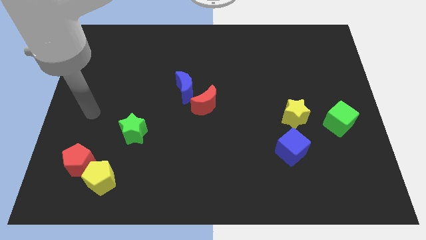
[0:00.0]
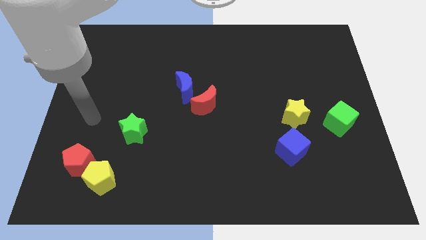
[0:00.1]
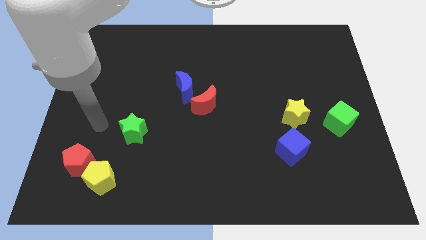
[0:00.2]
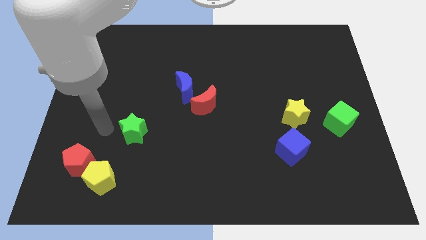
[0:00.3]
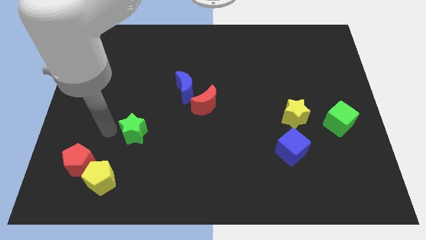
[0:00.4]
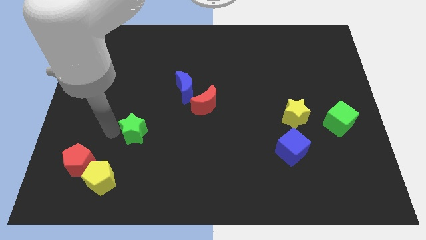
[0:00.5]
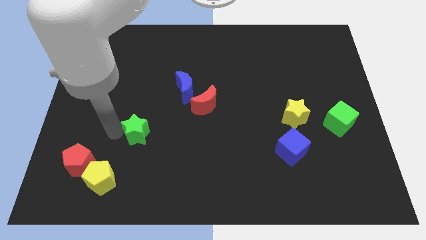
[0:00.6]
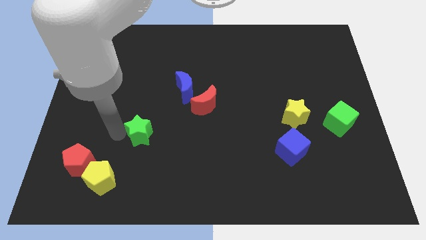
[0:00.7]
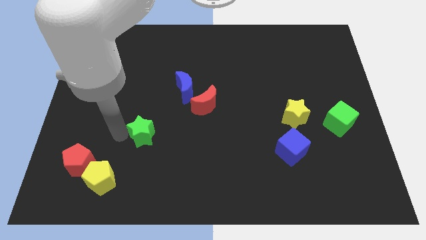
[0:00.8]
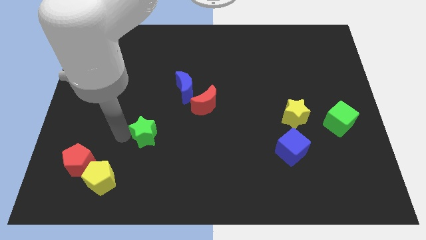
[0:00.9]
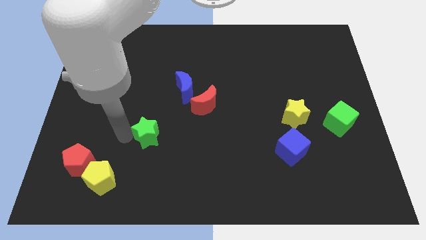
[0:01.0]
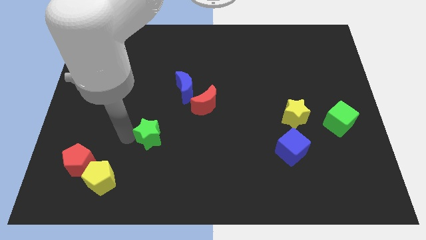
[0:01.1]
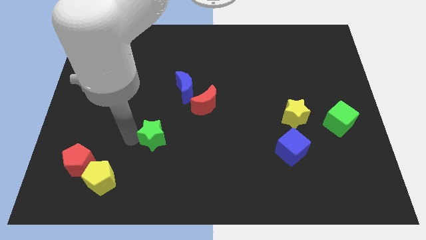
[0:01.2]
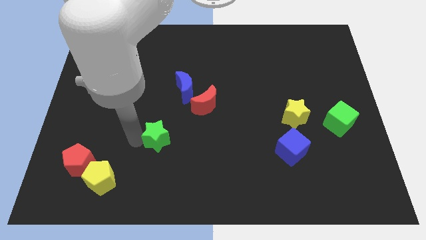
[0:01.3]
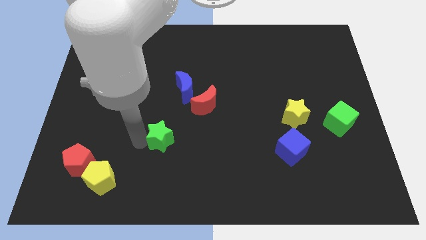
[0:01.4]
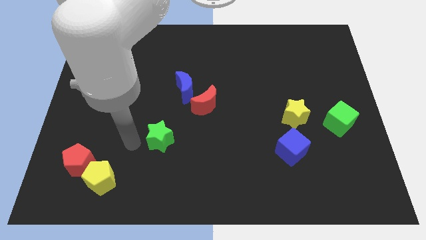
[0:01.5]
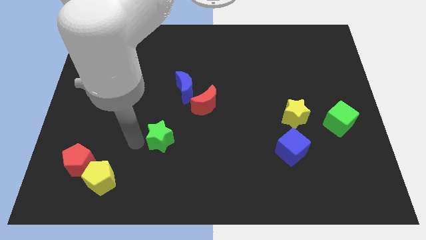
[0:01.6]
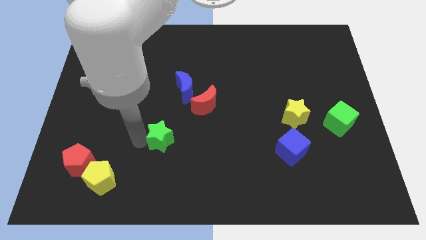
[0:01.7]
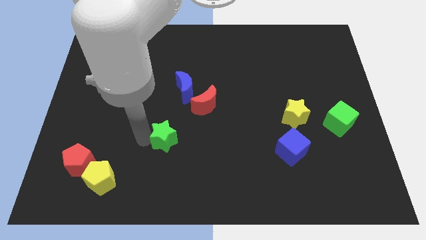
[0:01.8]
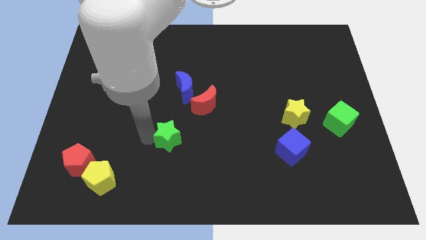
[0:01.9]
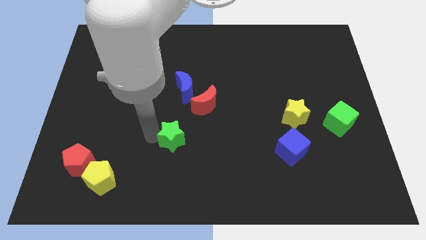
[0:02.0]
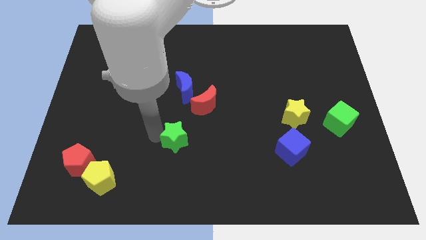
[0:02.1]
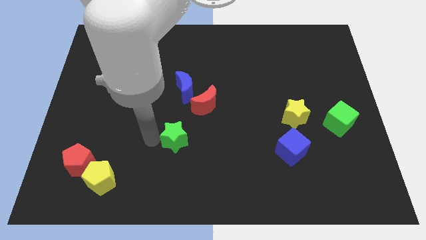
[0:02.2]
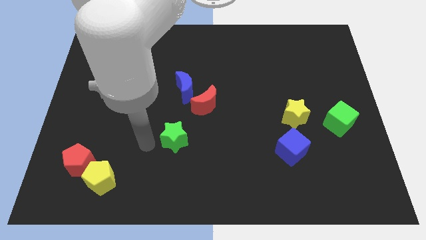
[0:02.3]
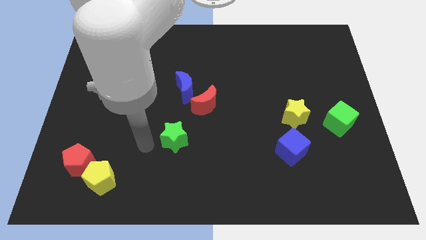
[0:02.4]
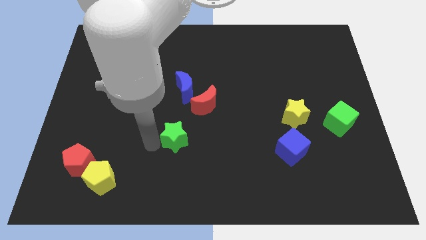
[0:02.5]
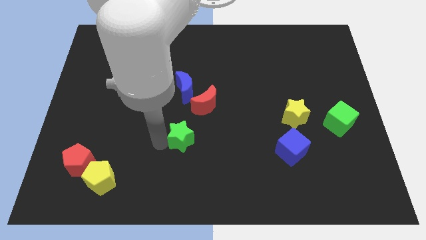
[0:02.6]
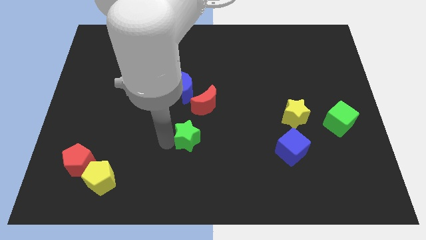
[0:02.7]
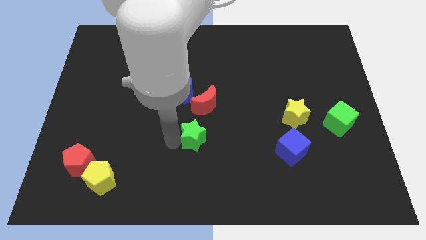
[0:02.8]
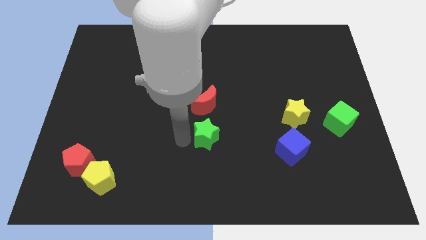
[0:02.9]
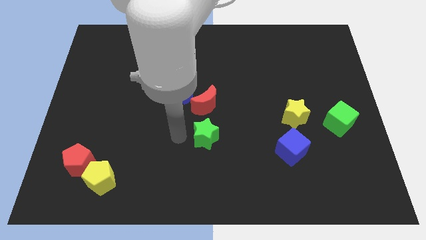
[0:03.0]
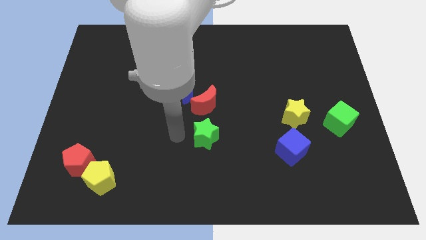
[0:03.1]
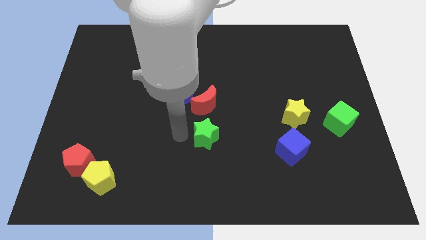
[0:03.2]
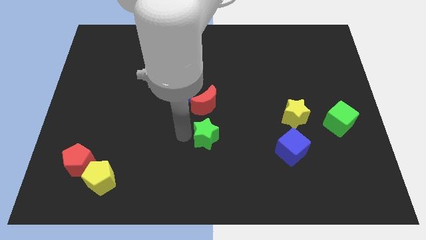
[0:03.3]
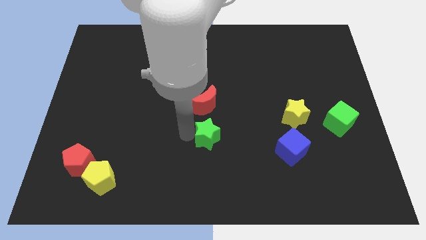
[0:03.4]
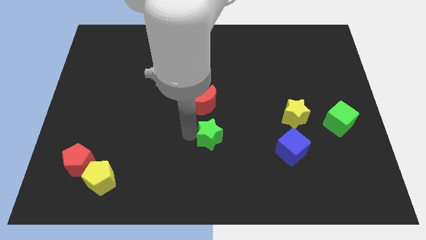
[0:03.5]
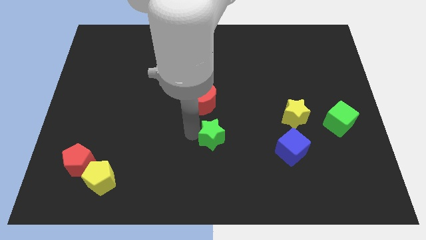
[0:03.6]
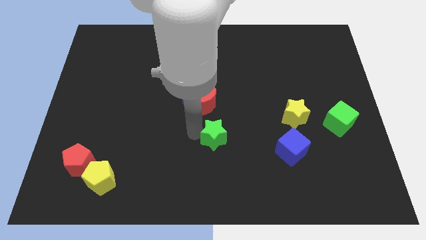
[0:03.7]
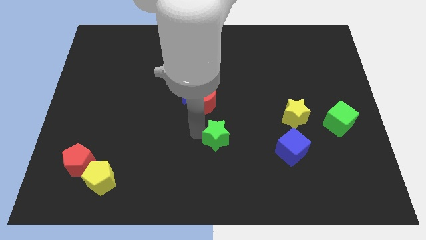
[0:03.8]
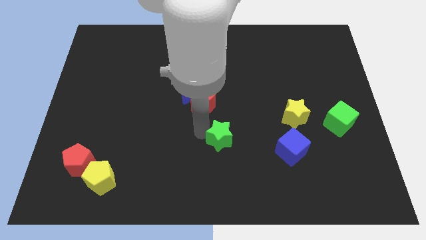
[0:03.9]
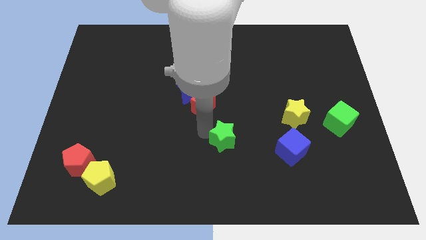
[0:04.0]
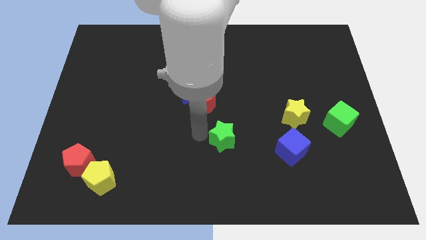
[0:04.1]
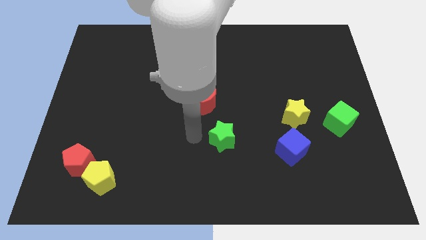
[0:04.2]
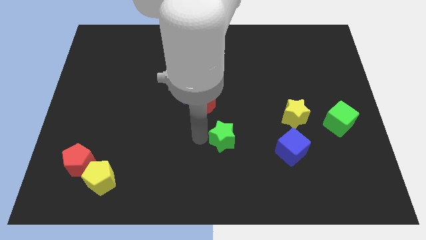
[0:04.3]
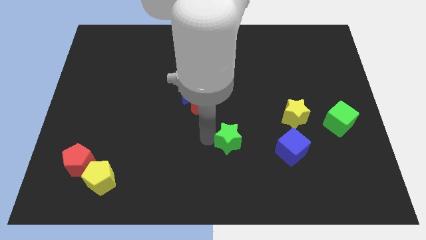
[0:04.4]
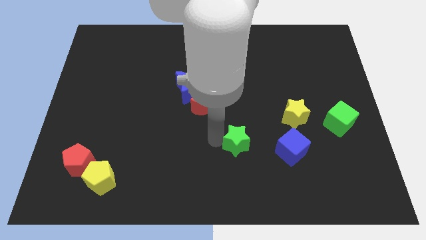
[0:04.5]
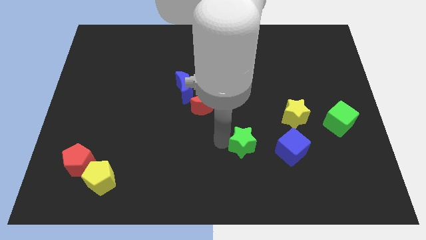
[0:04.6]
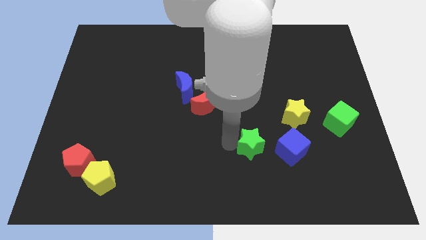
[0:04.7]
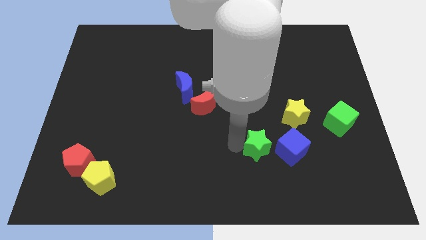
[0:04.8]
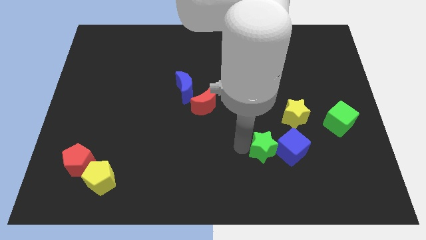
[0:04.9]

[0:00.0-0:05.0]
push the green star next to the blue cube

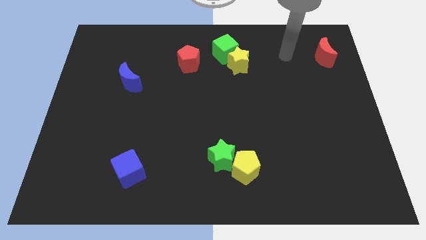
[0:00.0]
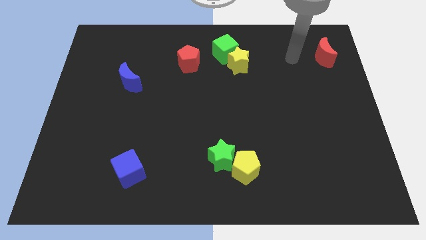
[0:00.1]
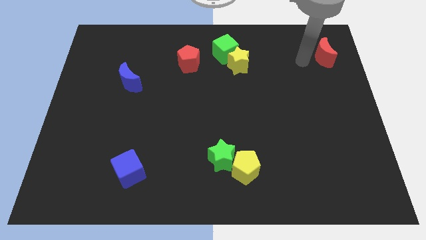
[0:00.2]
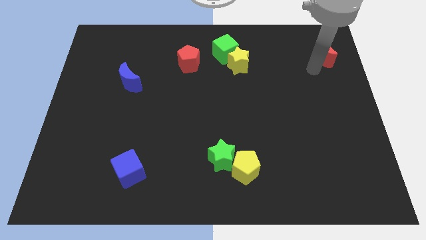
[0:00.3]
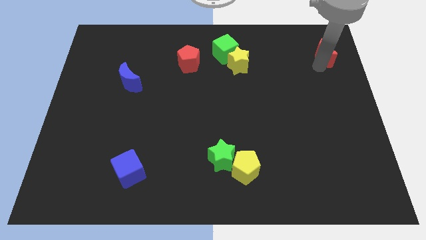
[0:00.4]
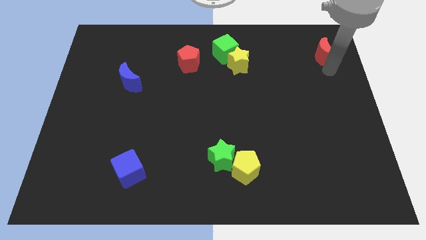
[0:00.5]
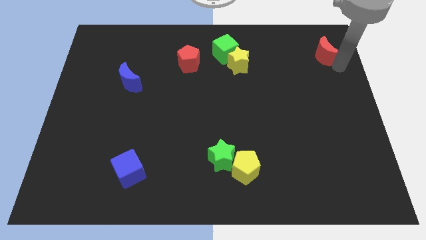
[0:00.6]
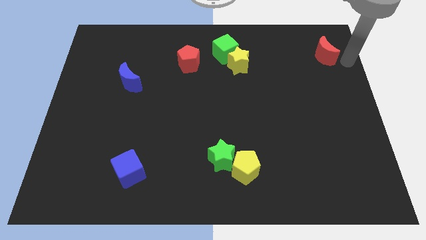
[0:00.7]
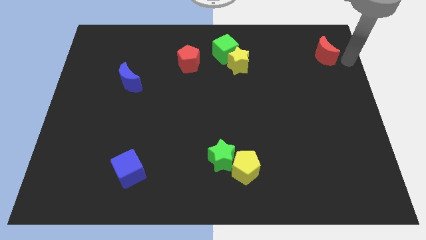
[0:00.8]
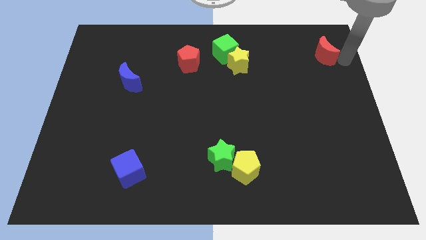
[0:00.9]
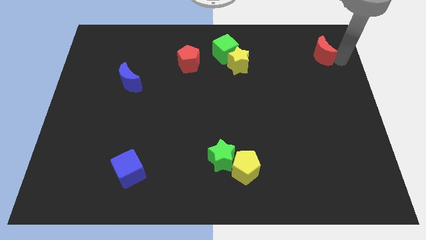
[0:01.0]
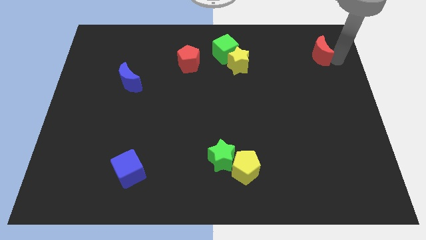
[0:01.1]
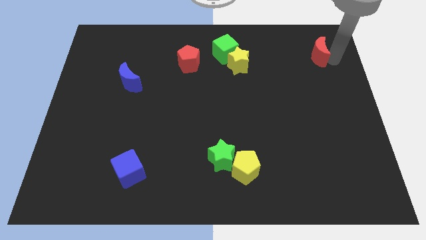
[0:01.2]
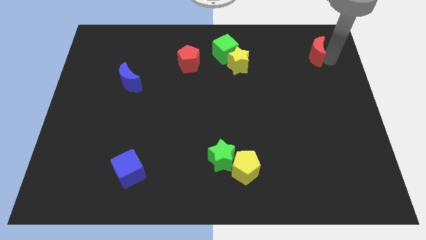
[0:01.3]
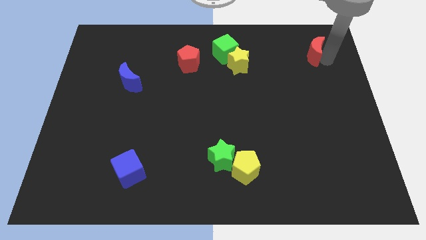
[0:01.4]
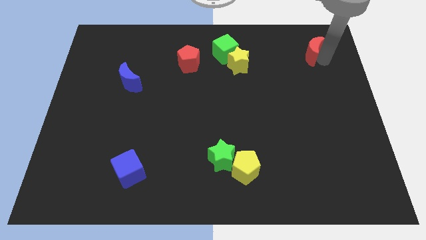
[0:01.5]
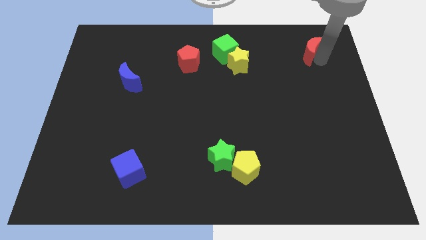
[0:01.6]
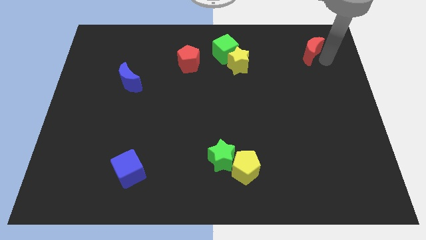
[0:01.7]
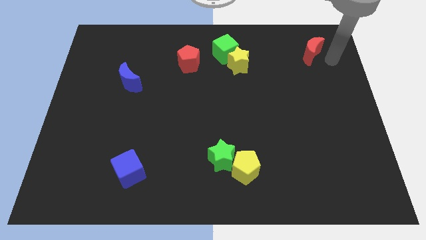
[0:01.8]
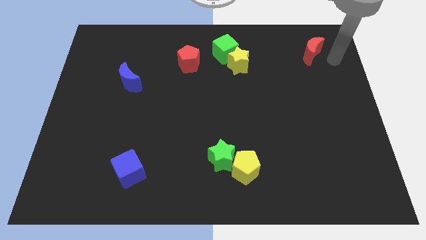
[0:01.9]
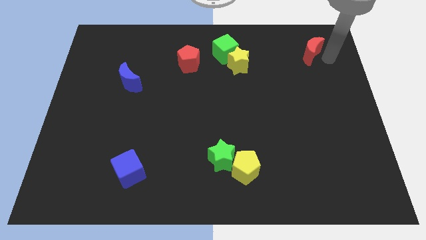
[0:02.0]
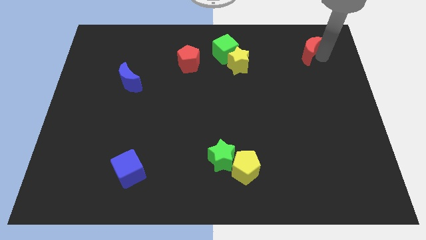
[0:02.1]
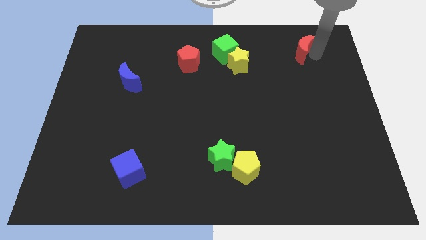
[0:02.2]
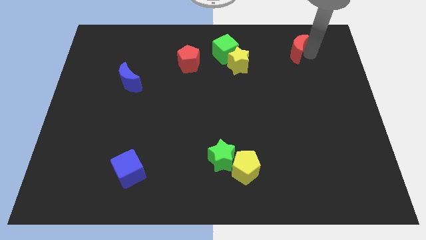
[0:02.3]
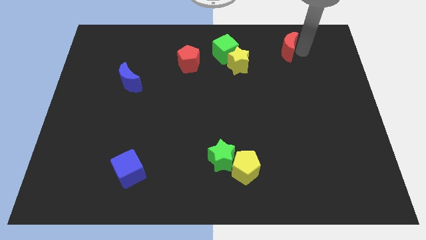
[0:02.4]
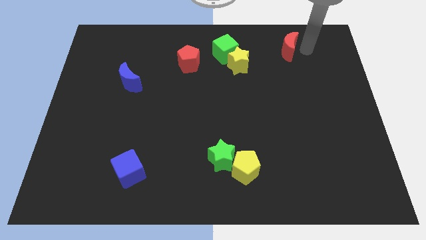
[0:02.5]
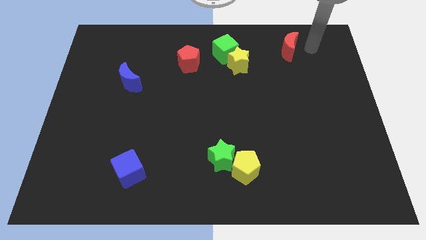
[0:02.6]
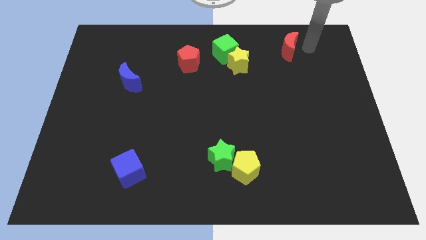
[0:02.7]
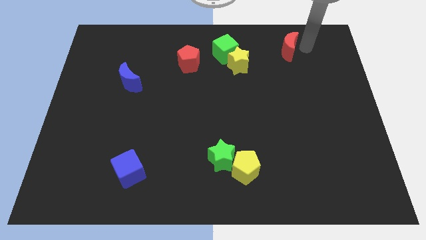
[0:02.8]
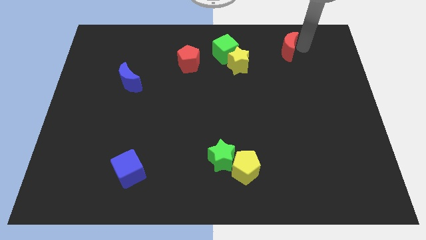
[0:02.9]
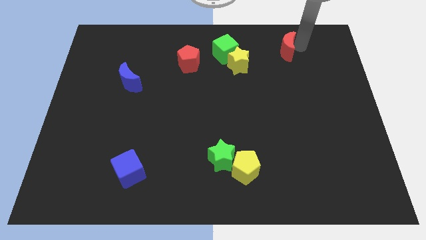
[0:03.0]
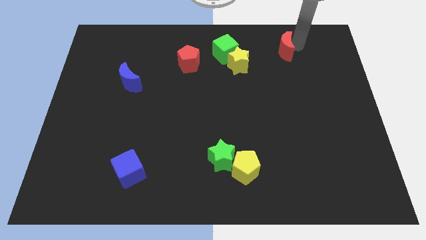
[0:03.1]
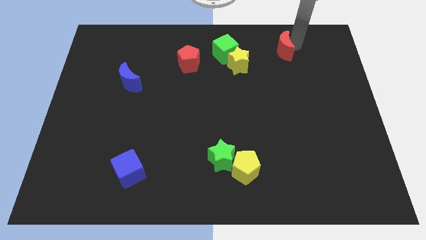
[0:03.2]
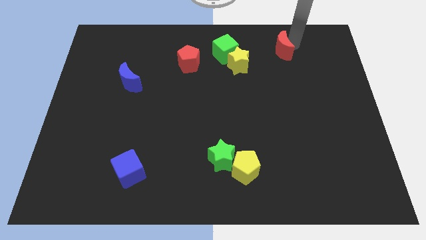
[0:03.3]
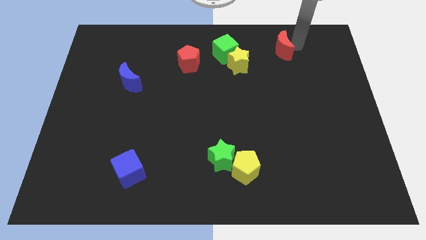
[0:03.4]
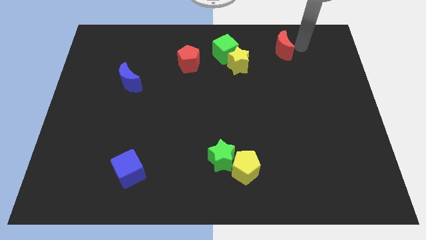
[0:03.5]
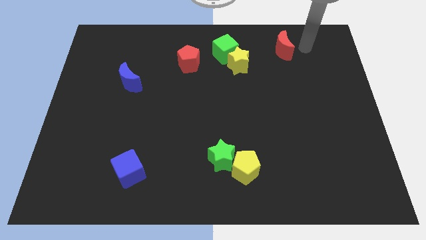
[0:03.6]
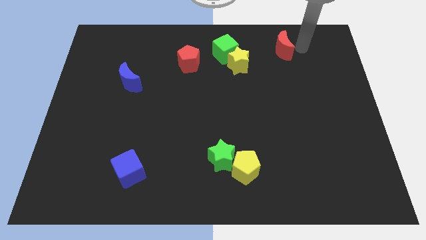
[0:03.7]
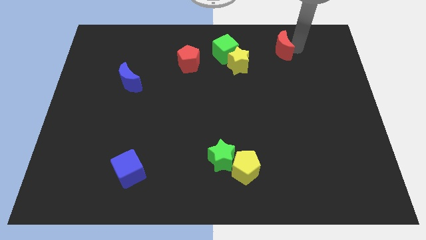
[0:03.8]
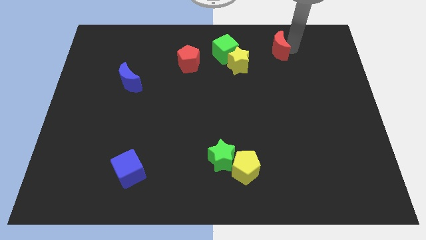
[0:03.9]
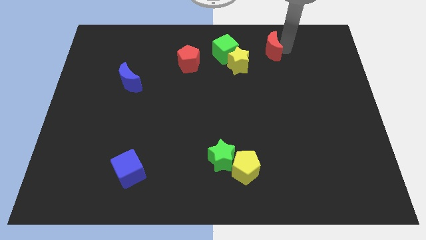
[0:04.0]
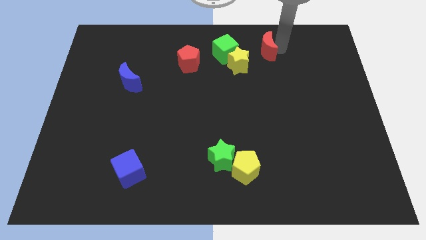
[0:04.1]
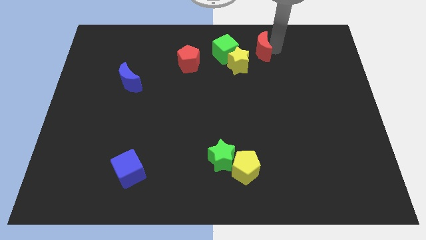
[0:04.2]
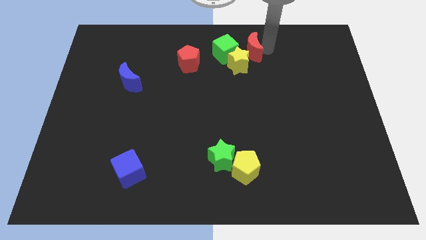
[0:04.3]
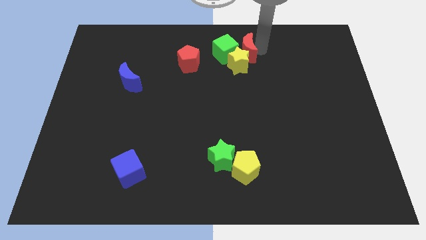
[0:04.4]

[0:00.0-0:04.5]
slide the red moon close to the green cube
